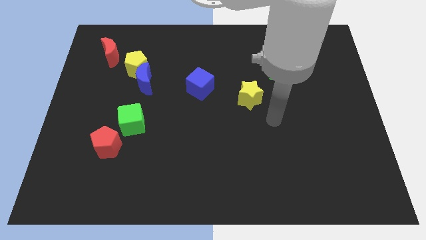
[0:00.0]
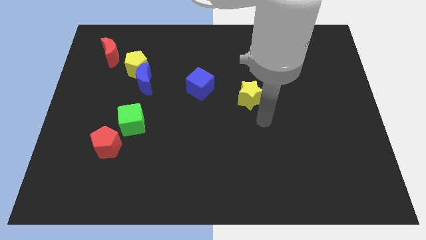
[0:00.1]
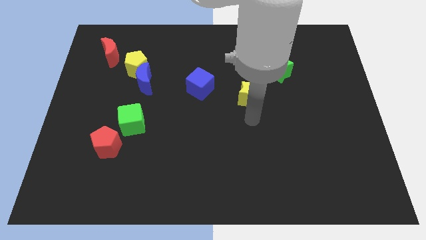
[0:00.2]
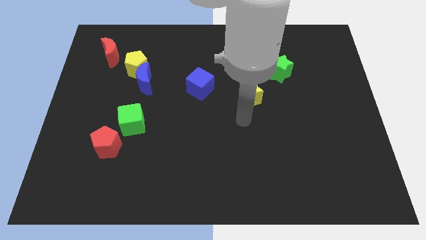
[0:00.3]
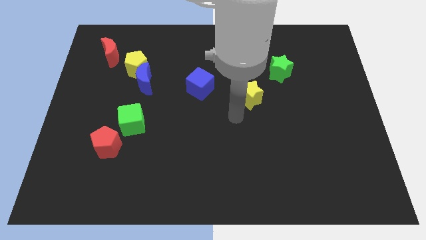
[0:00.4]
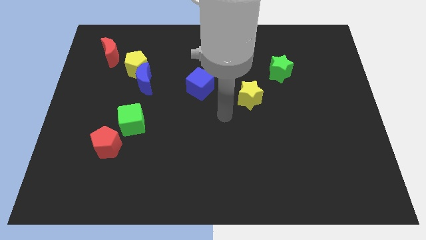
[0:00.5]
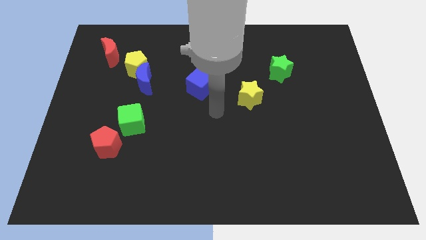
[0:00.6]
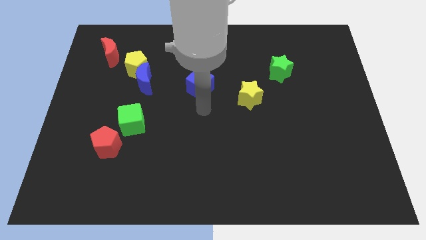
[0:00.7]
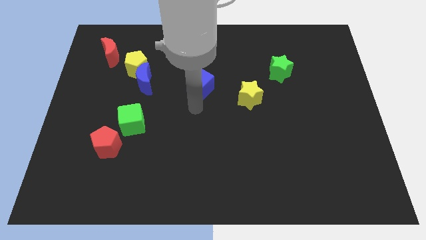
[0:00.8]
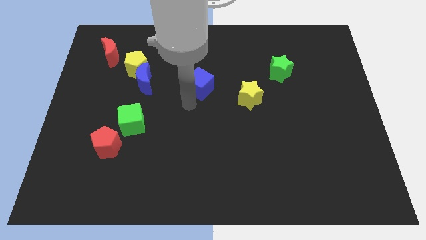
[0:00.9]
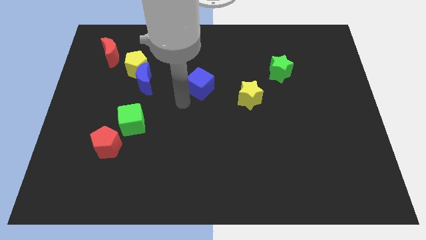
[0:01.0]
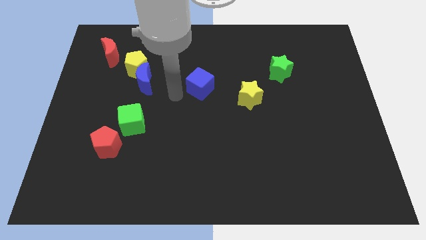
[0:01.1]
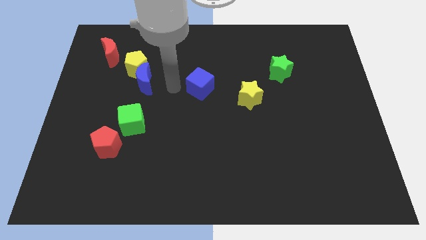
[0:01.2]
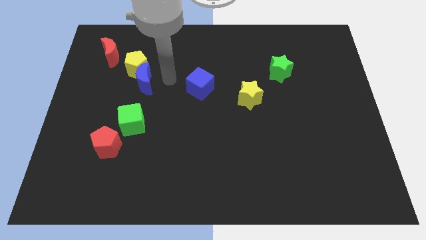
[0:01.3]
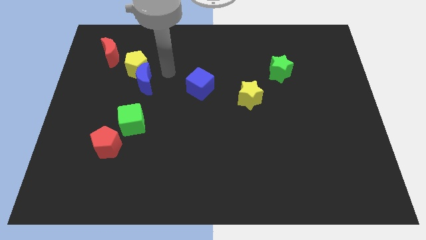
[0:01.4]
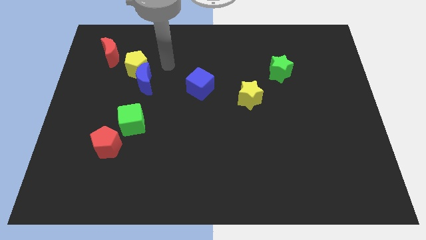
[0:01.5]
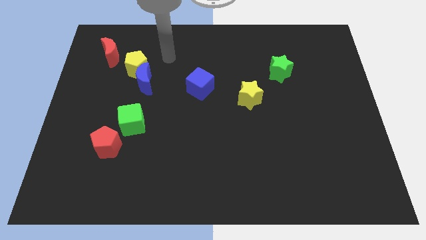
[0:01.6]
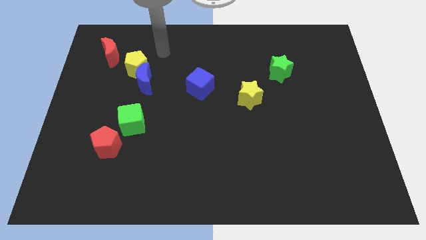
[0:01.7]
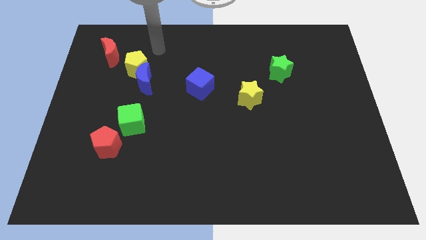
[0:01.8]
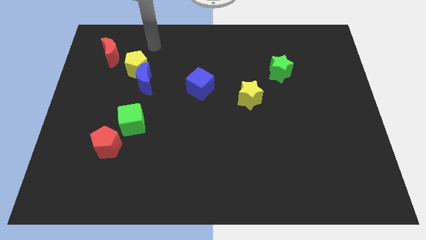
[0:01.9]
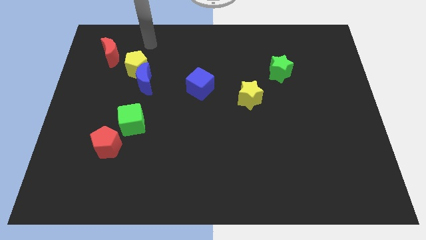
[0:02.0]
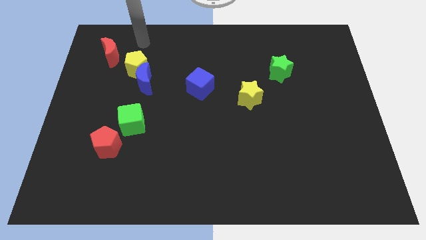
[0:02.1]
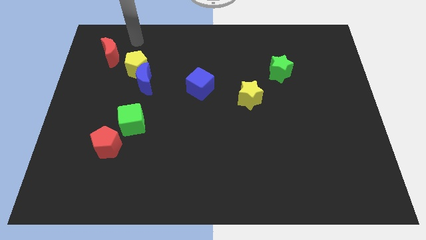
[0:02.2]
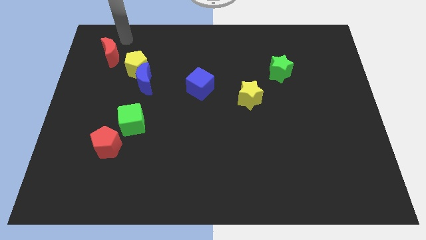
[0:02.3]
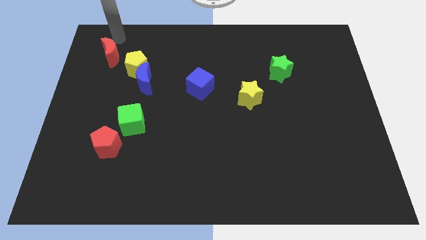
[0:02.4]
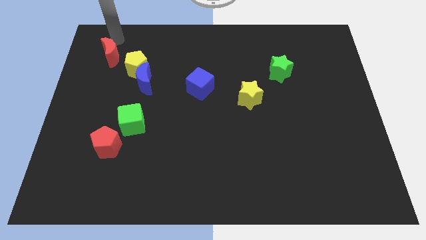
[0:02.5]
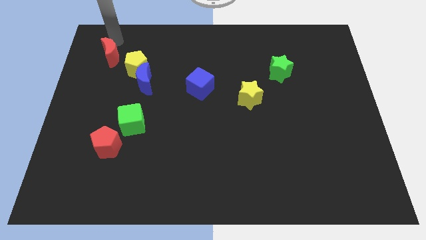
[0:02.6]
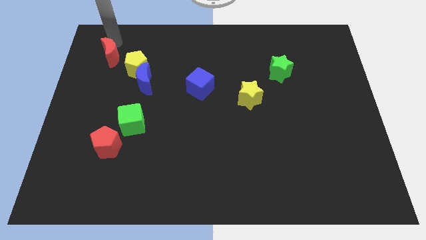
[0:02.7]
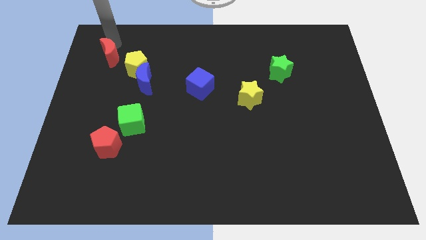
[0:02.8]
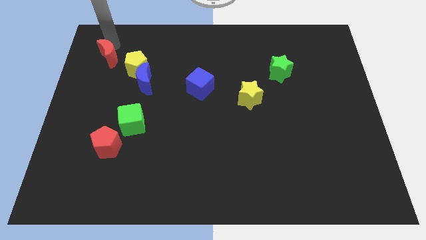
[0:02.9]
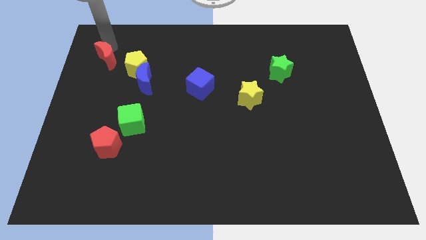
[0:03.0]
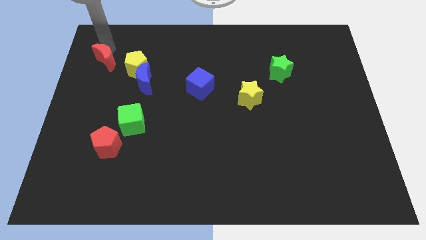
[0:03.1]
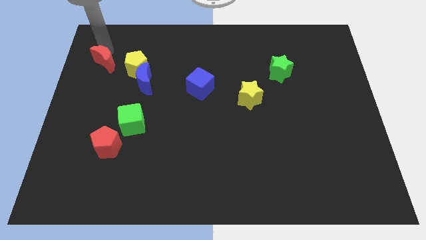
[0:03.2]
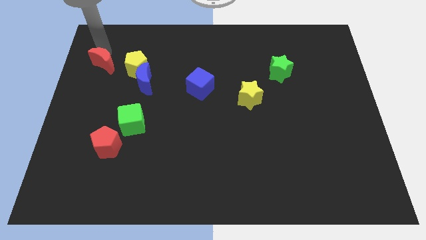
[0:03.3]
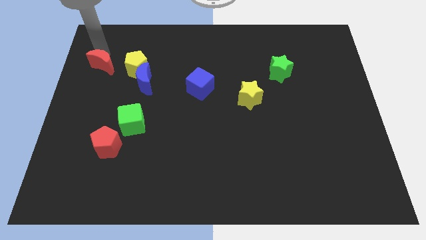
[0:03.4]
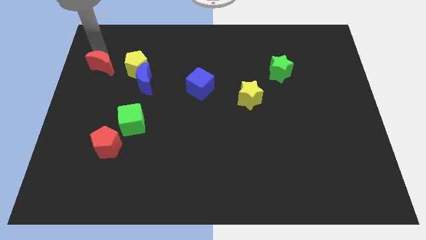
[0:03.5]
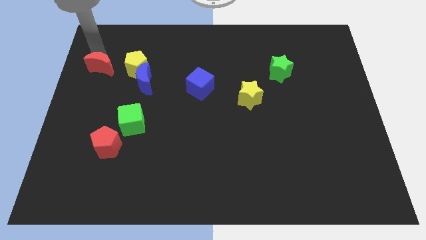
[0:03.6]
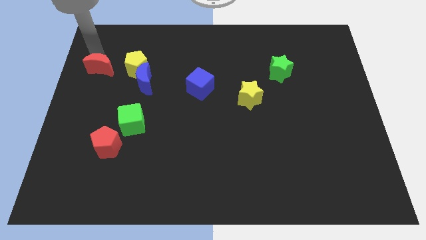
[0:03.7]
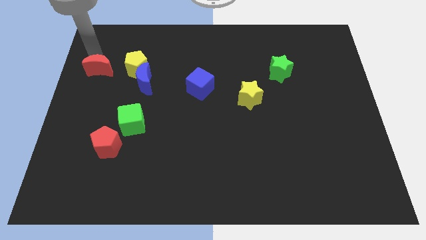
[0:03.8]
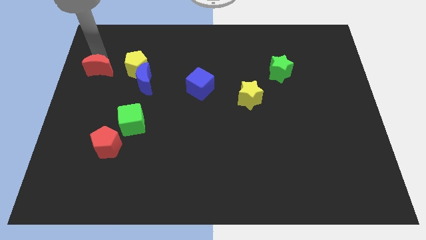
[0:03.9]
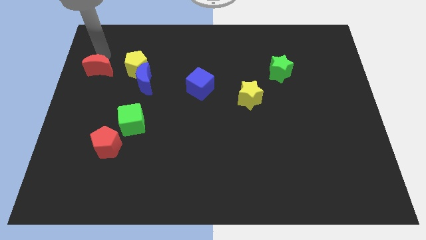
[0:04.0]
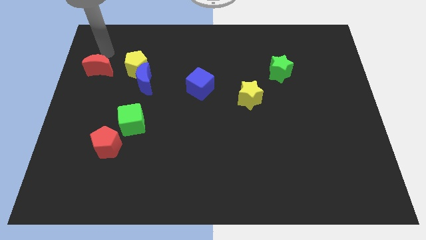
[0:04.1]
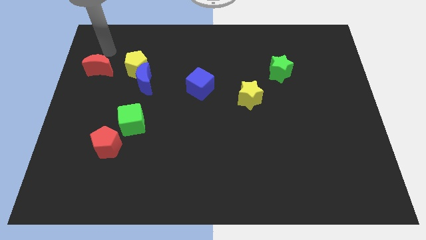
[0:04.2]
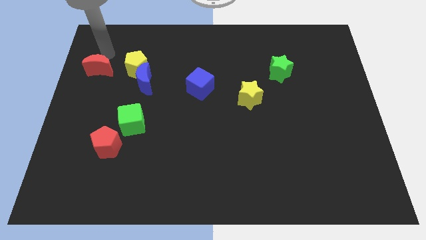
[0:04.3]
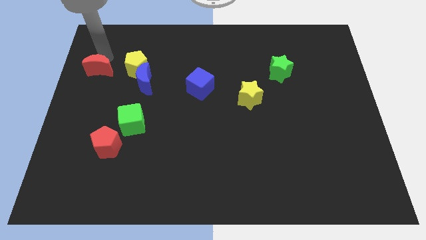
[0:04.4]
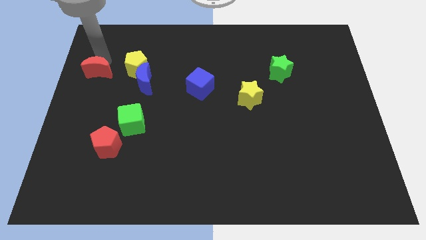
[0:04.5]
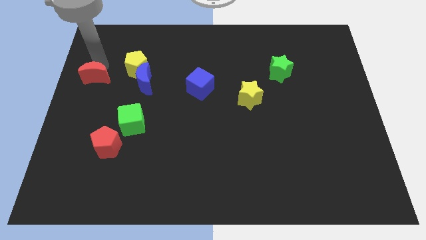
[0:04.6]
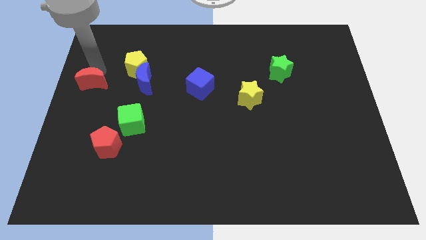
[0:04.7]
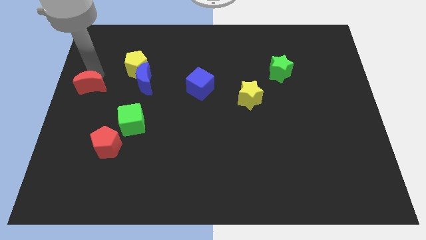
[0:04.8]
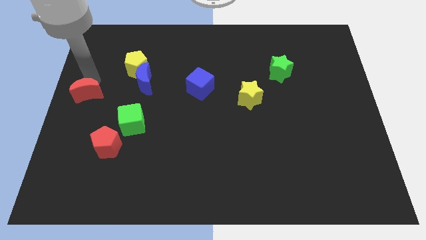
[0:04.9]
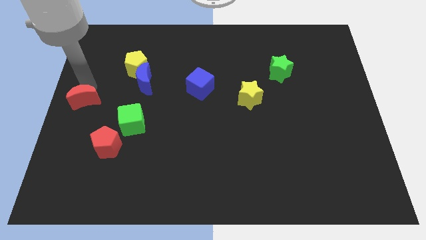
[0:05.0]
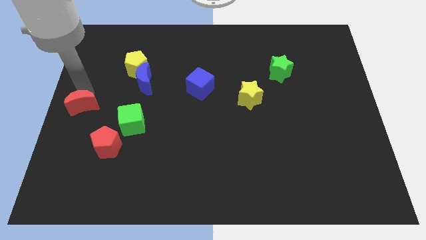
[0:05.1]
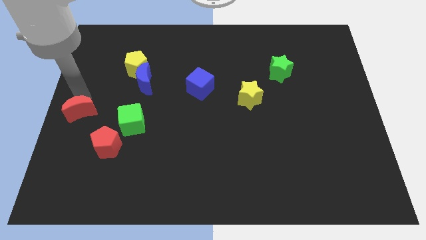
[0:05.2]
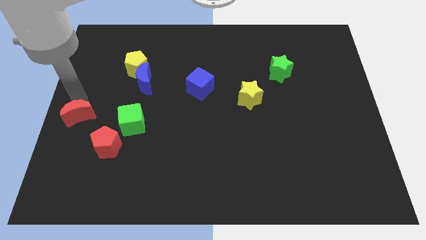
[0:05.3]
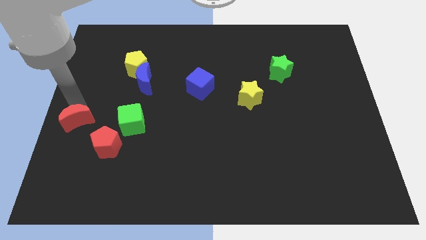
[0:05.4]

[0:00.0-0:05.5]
slide the red moon downwards

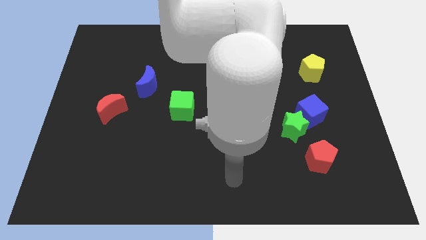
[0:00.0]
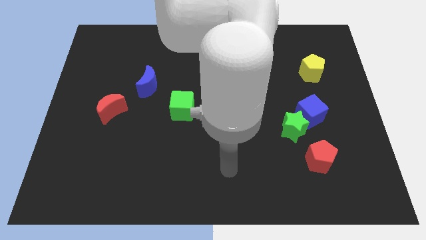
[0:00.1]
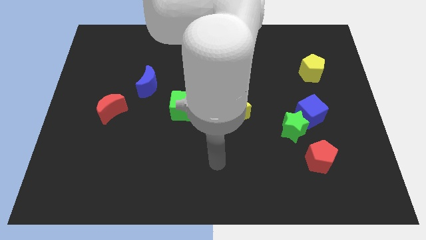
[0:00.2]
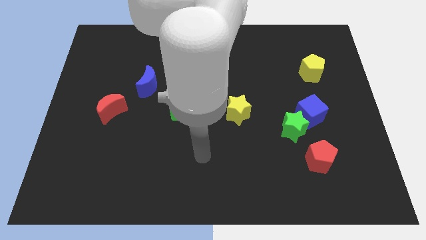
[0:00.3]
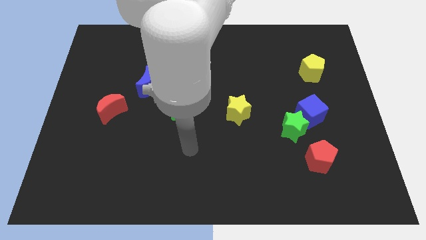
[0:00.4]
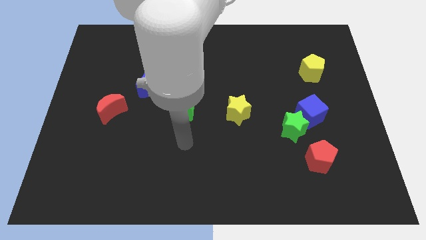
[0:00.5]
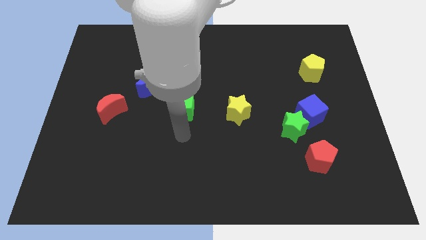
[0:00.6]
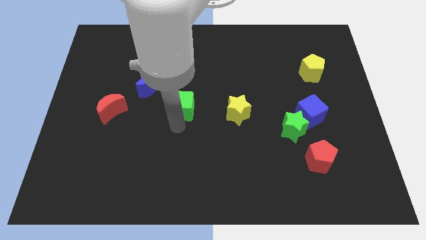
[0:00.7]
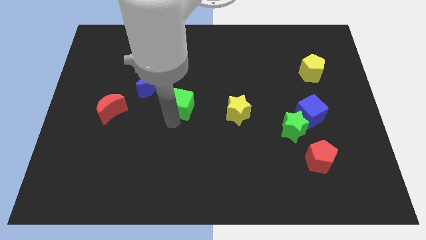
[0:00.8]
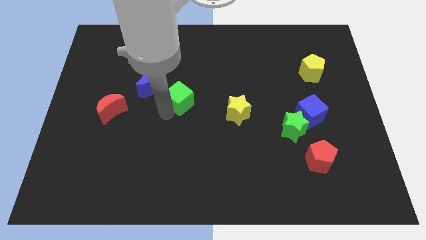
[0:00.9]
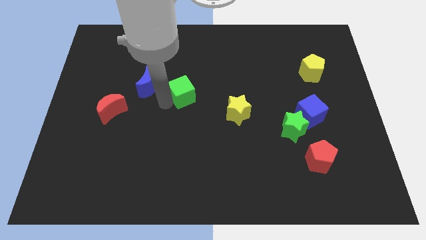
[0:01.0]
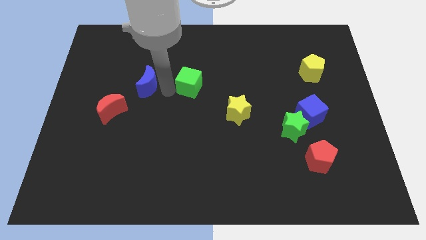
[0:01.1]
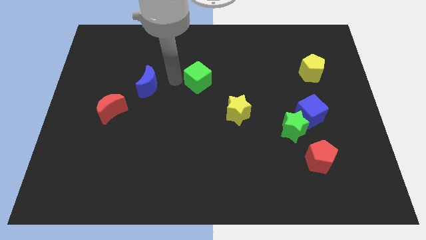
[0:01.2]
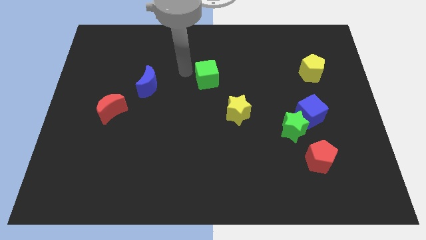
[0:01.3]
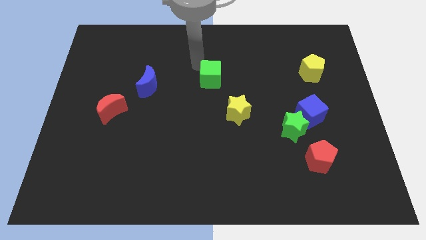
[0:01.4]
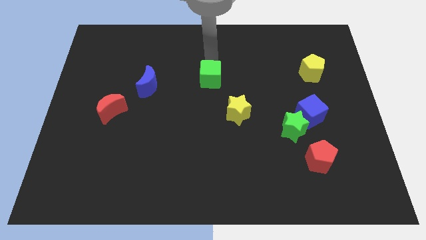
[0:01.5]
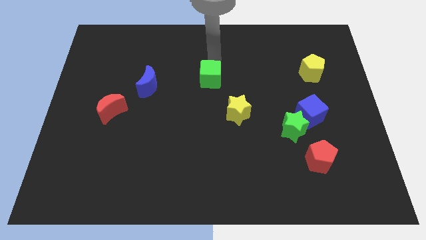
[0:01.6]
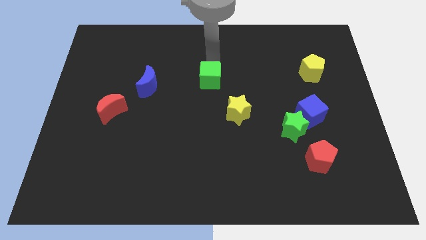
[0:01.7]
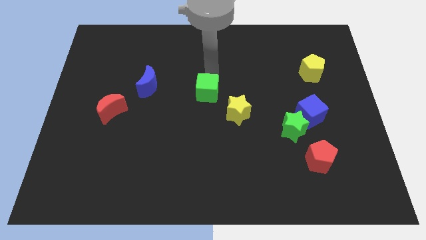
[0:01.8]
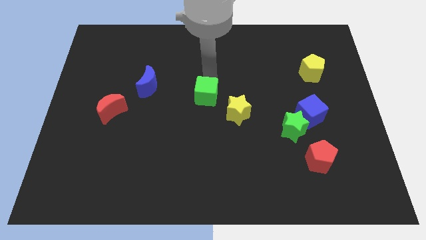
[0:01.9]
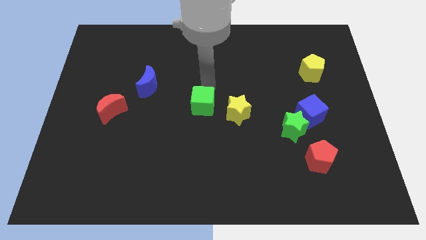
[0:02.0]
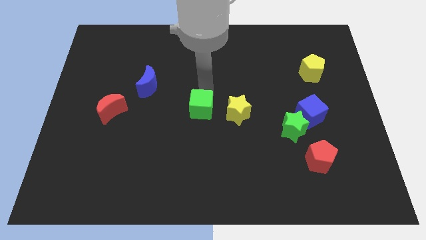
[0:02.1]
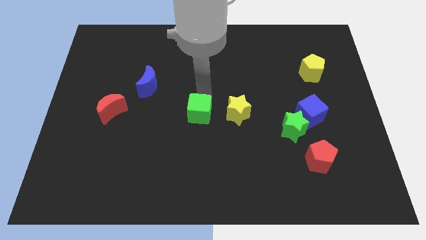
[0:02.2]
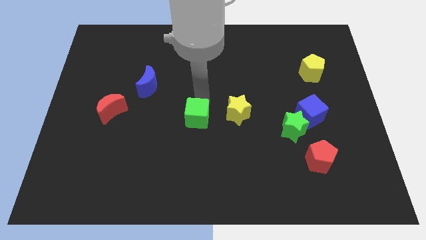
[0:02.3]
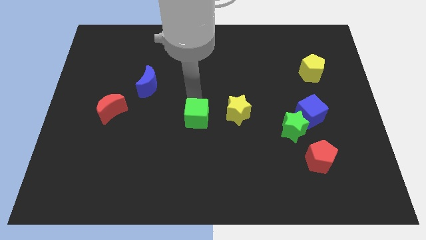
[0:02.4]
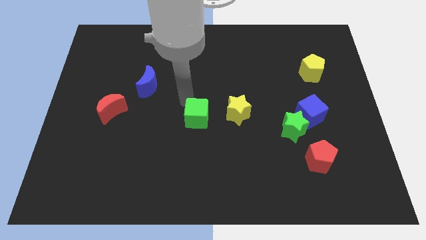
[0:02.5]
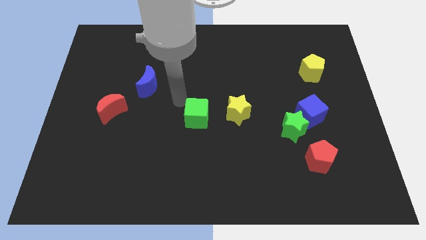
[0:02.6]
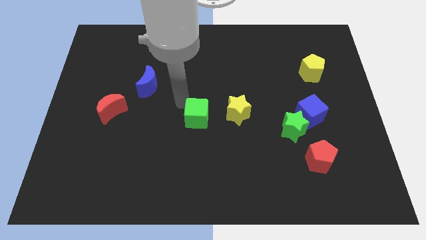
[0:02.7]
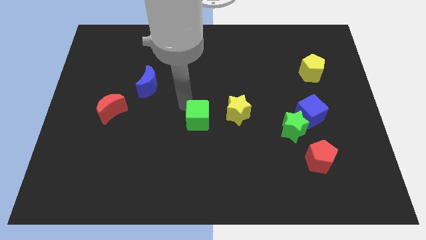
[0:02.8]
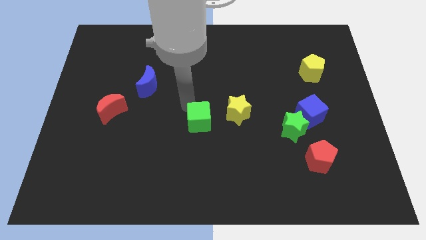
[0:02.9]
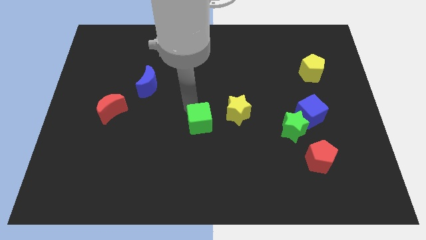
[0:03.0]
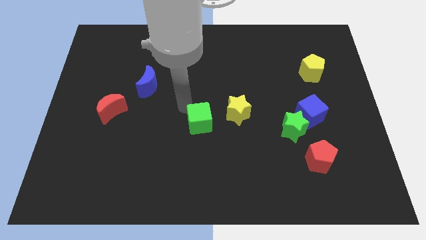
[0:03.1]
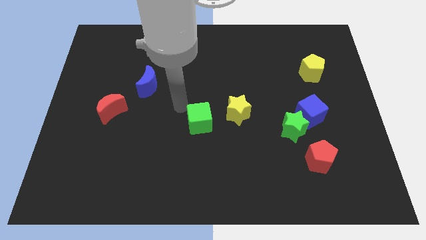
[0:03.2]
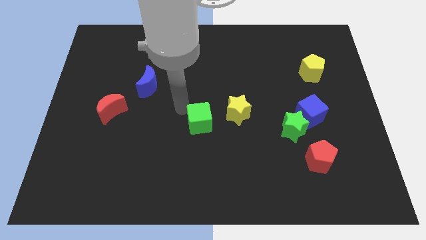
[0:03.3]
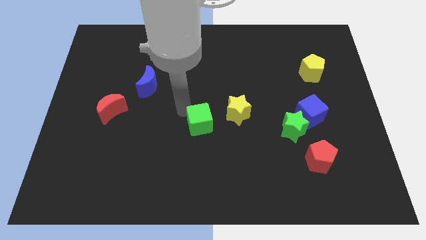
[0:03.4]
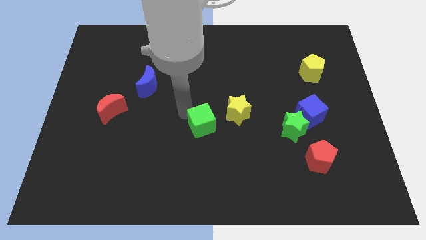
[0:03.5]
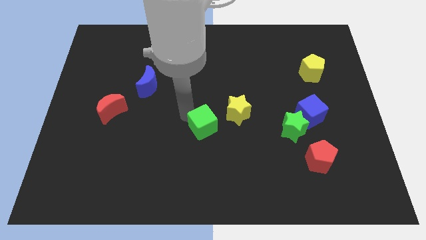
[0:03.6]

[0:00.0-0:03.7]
push the green cube down and right diagonally somewhat
